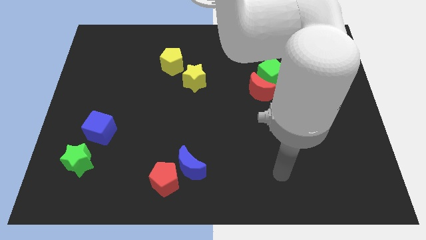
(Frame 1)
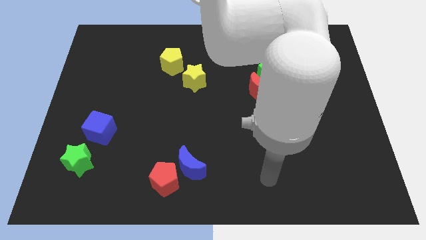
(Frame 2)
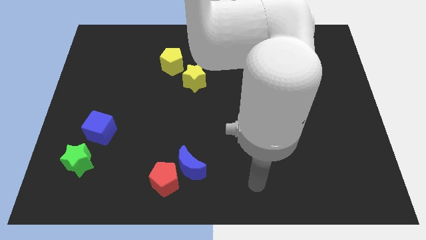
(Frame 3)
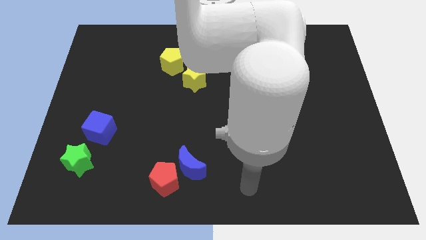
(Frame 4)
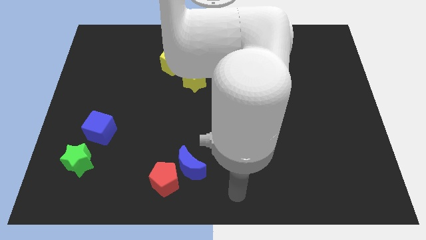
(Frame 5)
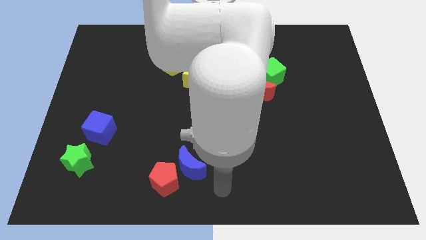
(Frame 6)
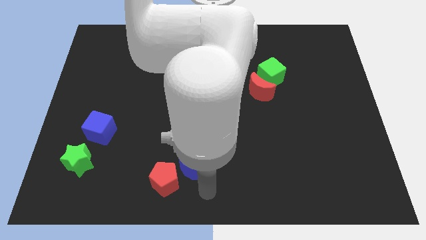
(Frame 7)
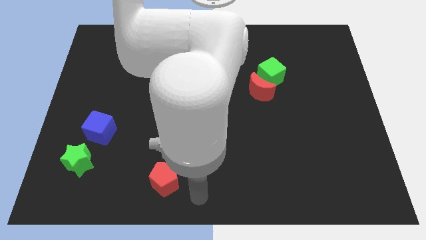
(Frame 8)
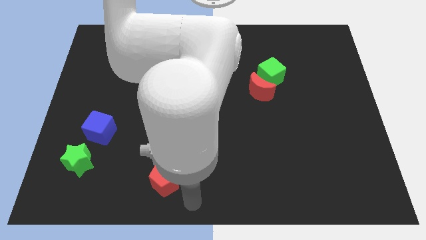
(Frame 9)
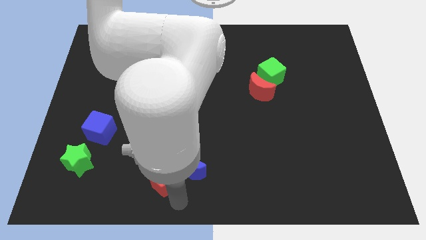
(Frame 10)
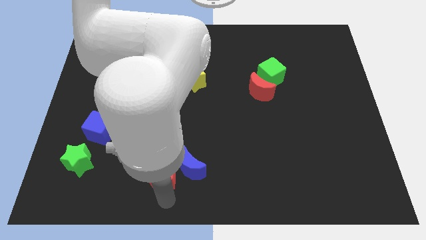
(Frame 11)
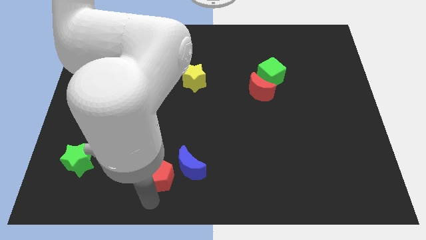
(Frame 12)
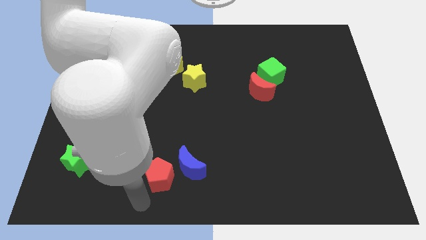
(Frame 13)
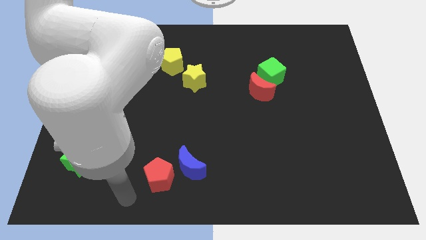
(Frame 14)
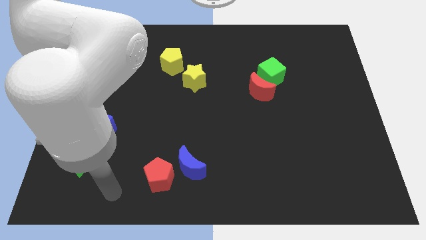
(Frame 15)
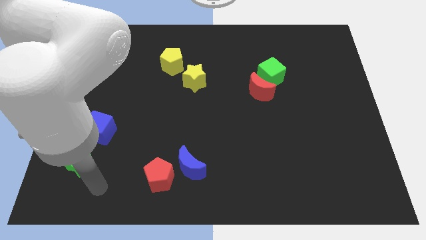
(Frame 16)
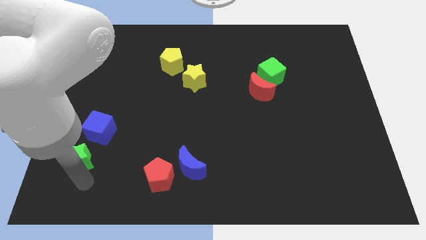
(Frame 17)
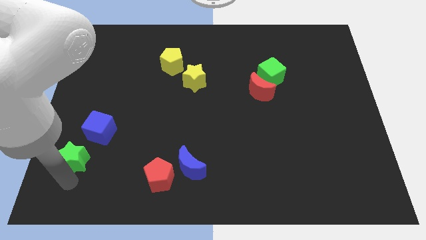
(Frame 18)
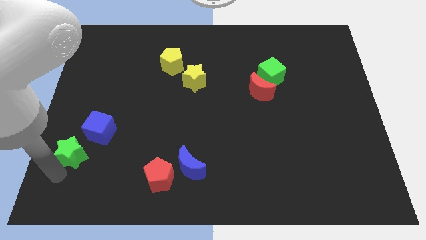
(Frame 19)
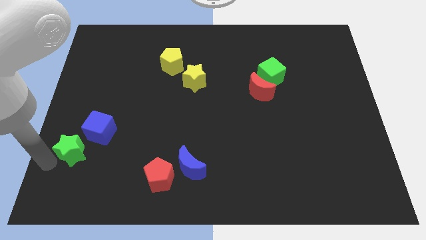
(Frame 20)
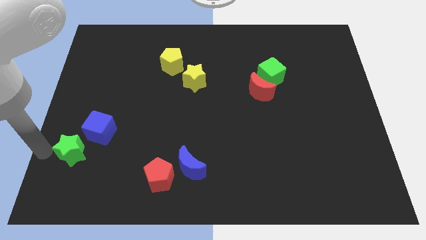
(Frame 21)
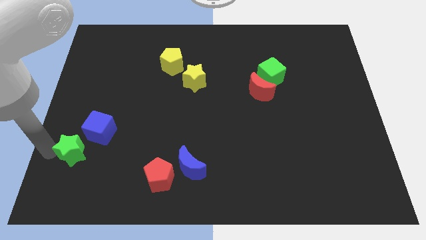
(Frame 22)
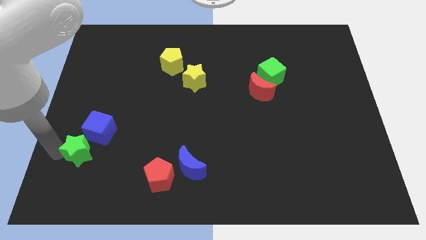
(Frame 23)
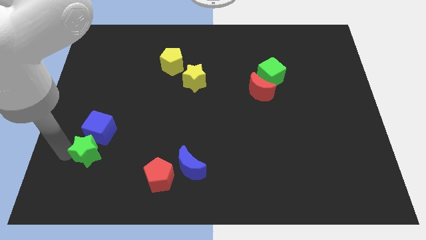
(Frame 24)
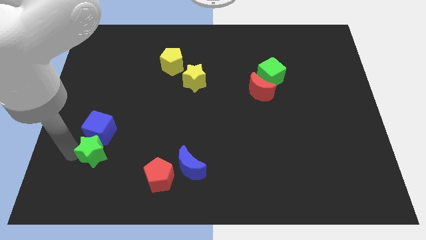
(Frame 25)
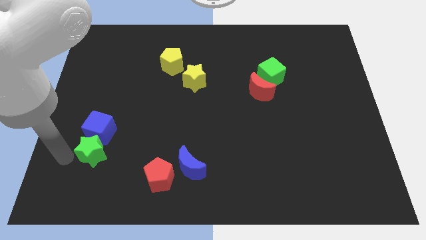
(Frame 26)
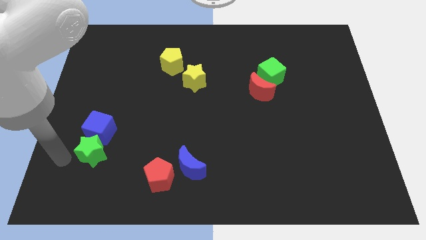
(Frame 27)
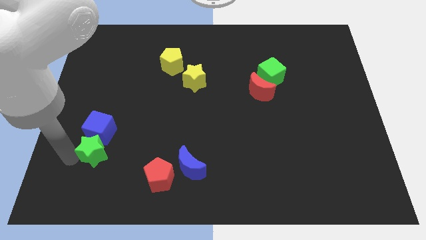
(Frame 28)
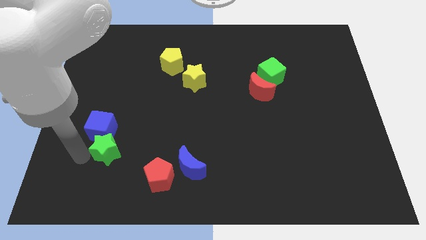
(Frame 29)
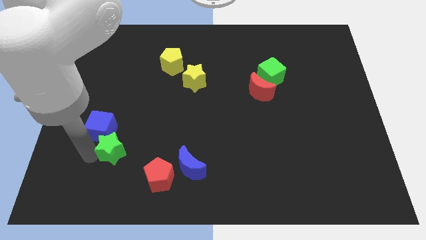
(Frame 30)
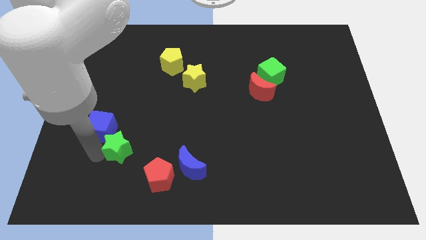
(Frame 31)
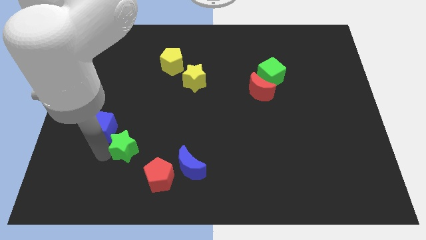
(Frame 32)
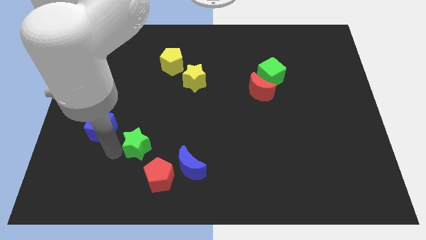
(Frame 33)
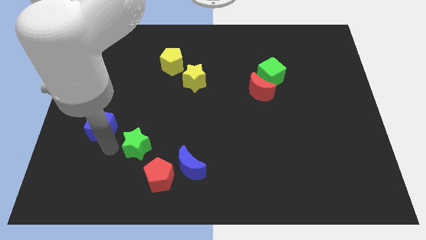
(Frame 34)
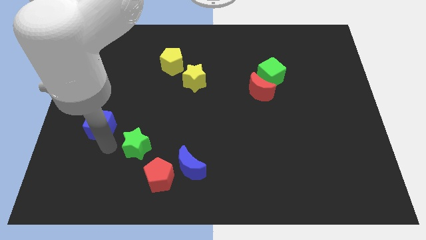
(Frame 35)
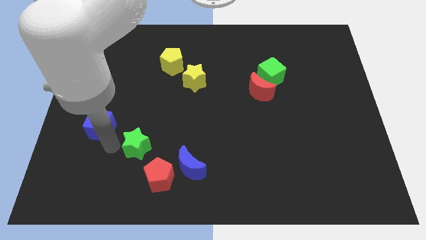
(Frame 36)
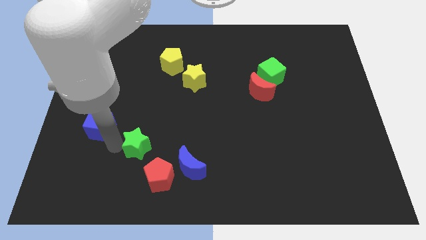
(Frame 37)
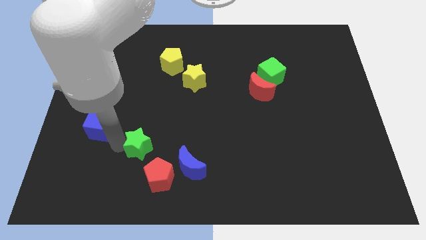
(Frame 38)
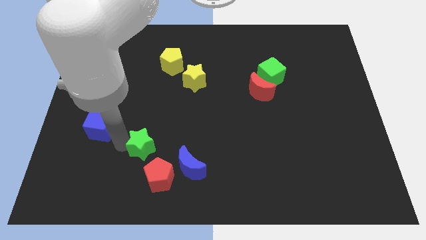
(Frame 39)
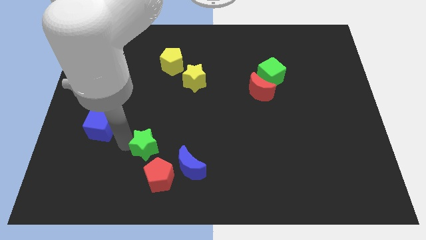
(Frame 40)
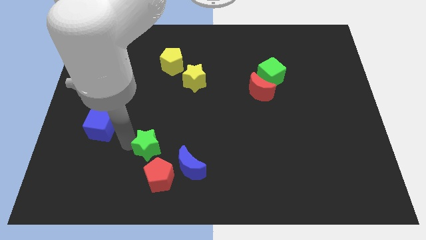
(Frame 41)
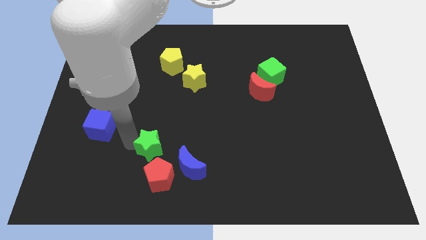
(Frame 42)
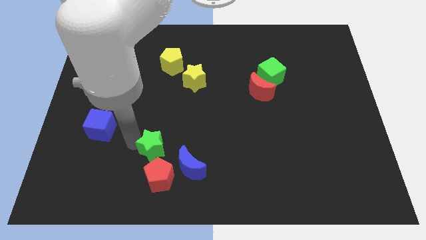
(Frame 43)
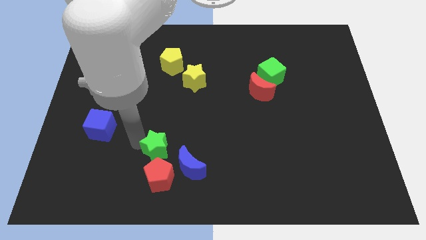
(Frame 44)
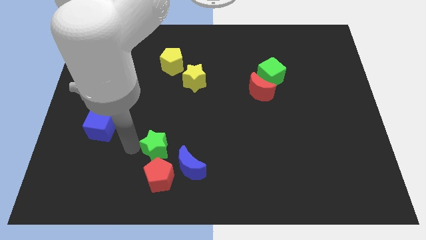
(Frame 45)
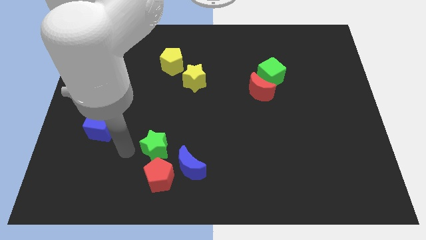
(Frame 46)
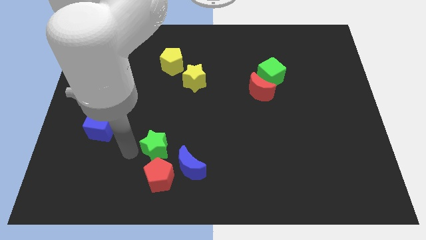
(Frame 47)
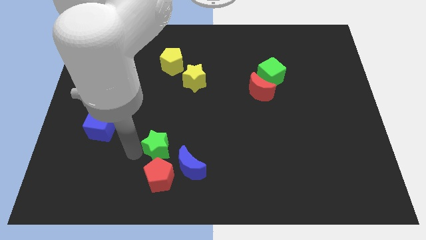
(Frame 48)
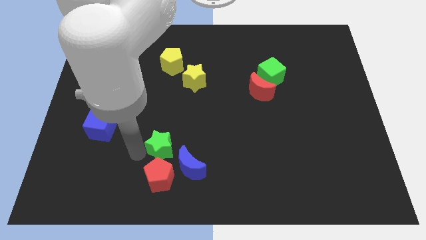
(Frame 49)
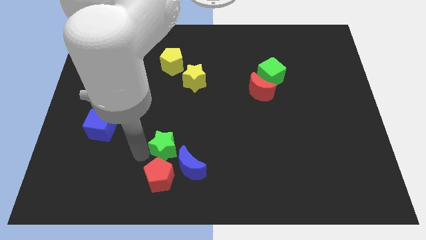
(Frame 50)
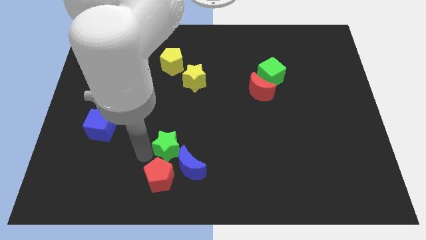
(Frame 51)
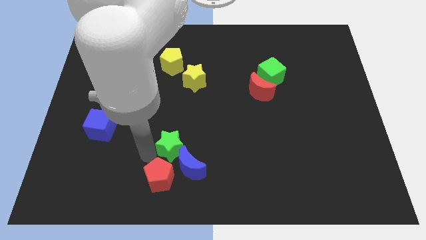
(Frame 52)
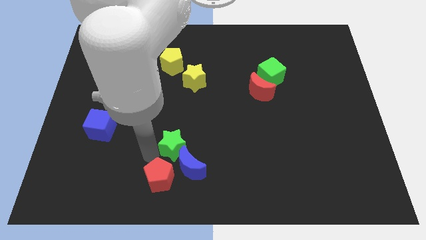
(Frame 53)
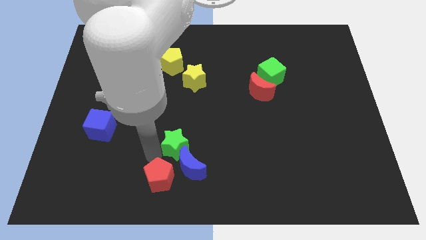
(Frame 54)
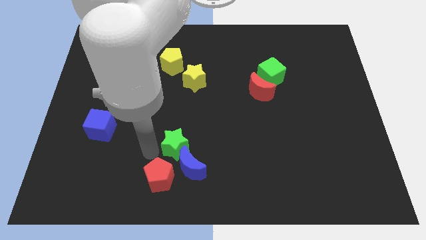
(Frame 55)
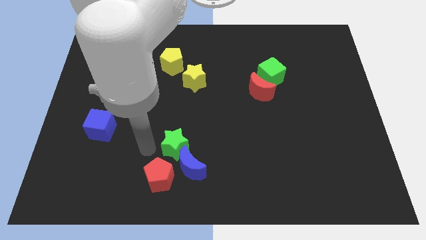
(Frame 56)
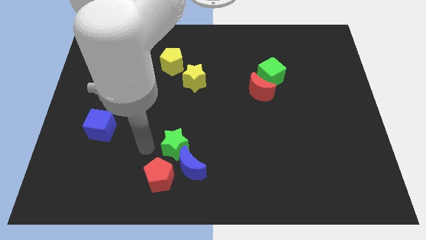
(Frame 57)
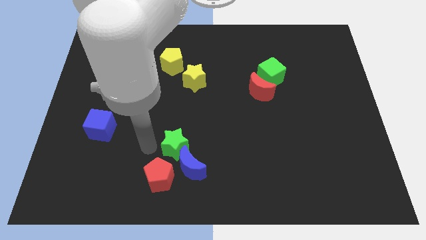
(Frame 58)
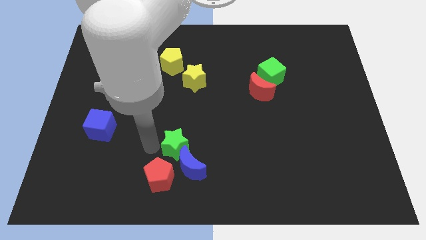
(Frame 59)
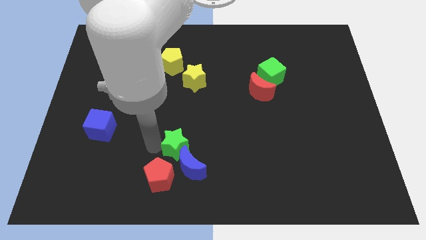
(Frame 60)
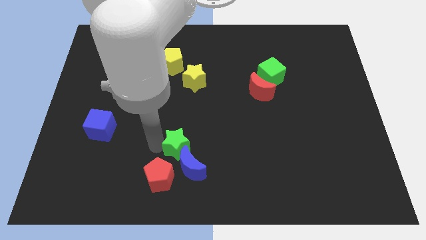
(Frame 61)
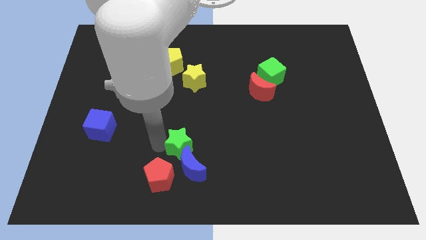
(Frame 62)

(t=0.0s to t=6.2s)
slide the green star to the right

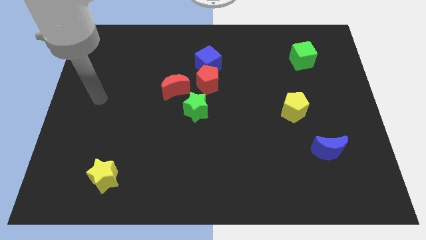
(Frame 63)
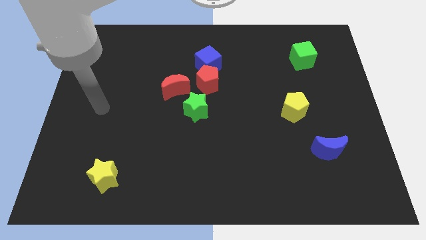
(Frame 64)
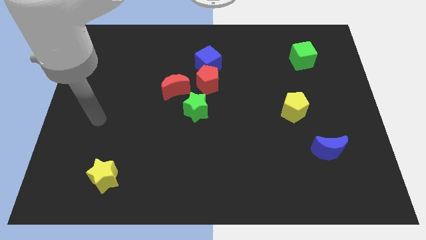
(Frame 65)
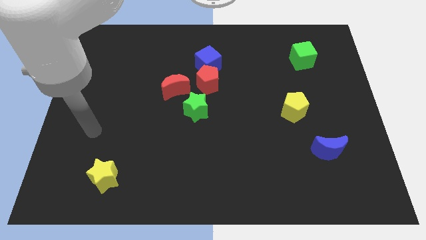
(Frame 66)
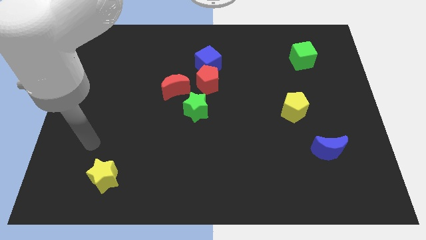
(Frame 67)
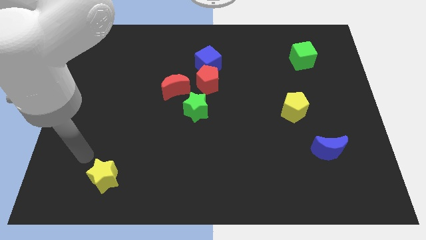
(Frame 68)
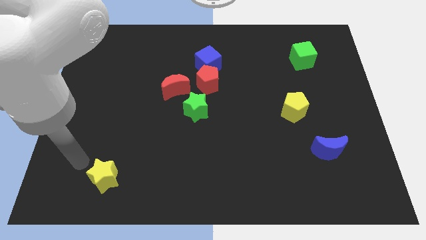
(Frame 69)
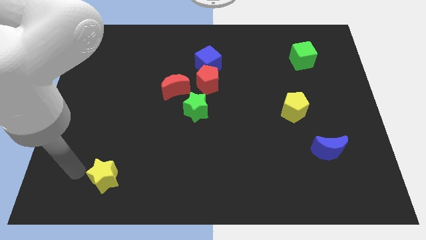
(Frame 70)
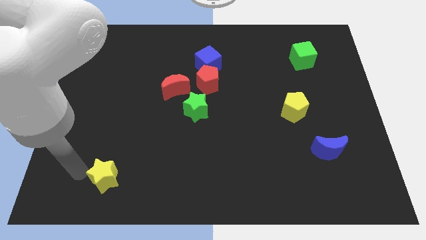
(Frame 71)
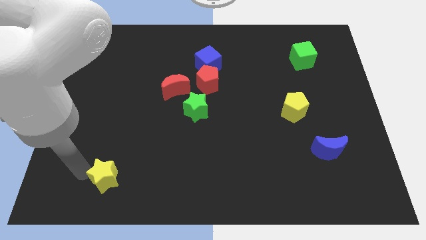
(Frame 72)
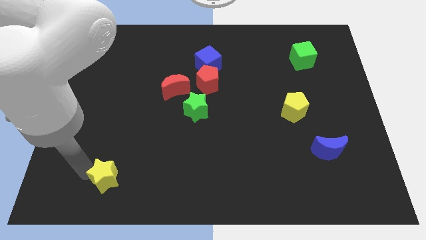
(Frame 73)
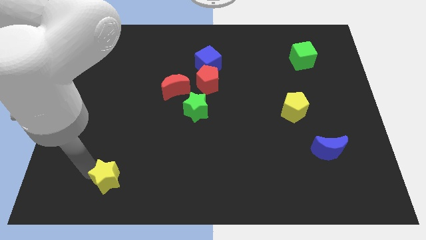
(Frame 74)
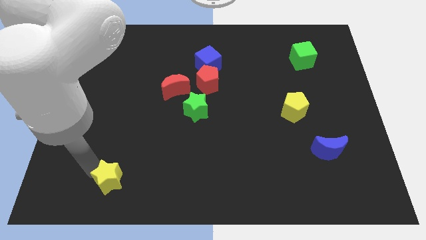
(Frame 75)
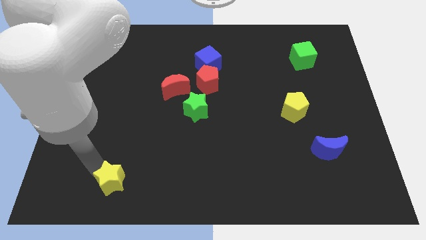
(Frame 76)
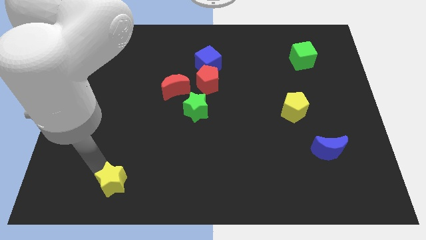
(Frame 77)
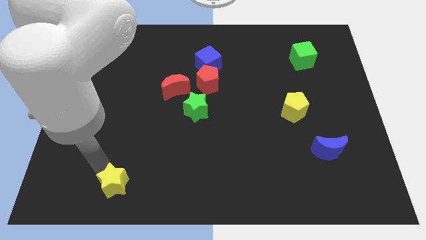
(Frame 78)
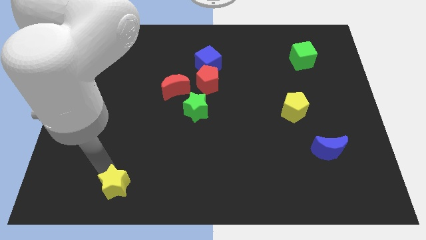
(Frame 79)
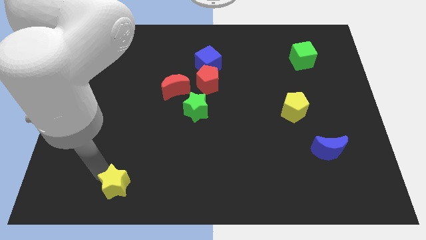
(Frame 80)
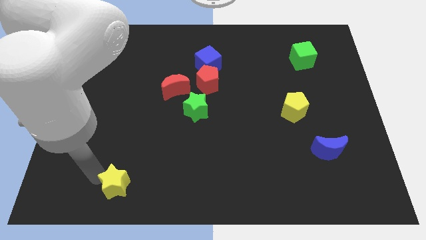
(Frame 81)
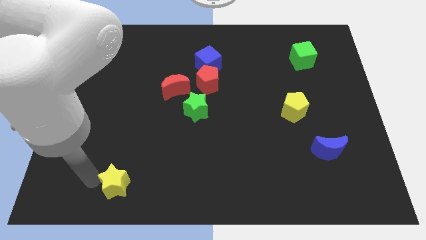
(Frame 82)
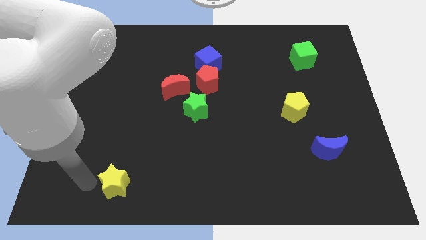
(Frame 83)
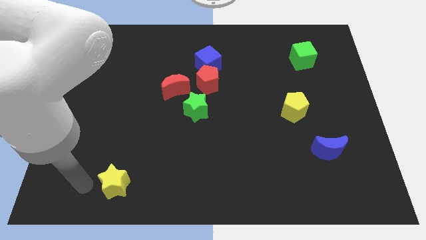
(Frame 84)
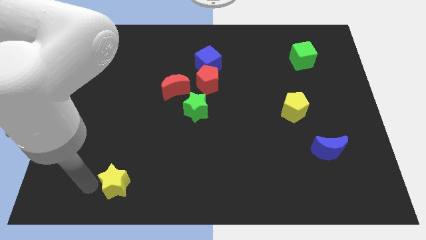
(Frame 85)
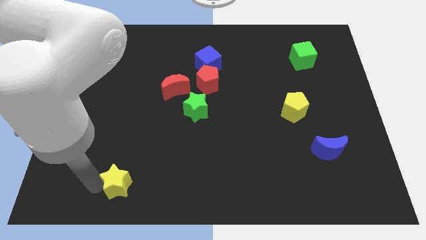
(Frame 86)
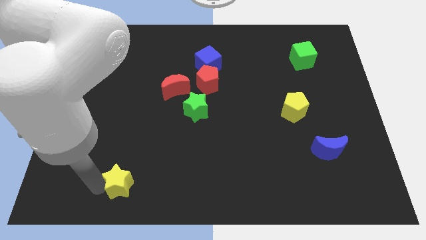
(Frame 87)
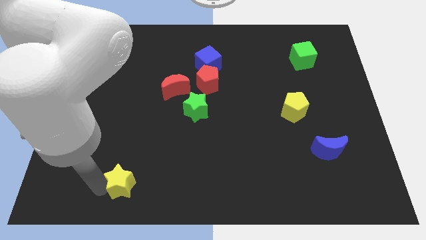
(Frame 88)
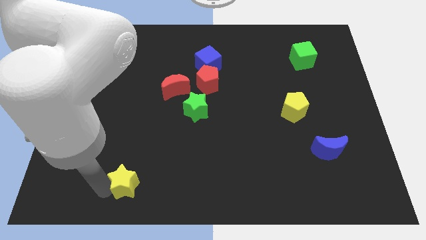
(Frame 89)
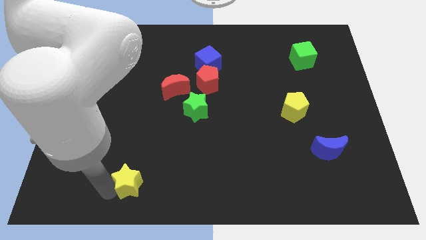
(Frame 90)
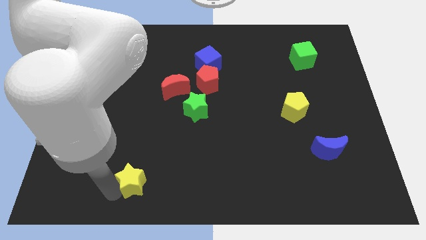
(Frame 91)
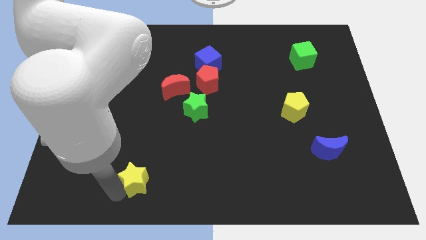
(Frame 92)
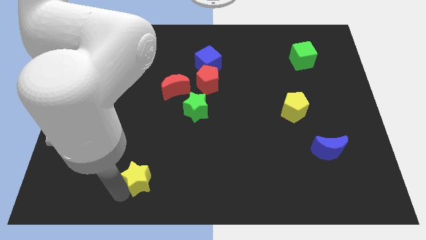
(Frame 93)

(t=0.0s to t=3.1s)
slide the yellow star a little to the right
